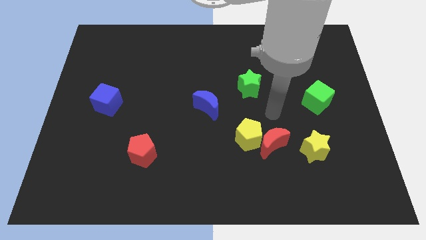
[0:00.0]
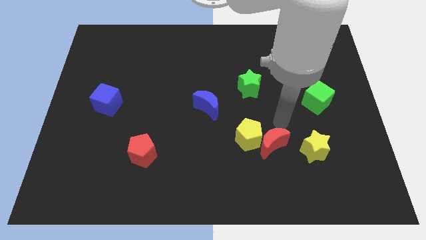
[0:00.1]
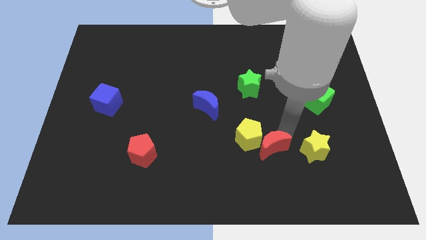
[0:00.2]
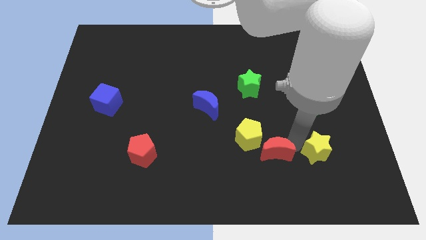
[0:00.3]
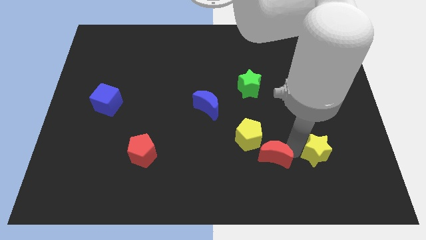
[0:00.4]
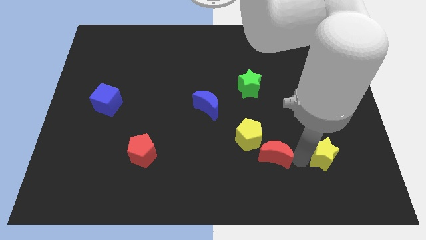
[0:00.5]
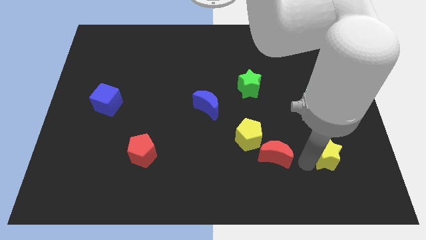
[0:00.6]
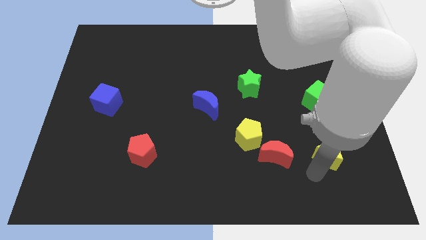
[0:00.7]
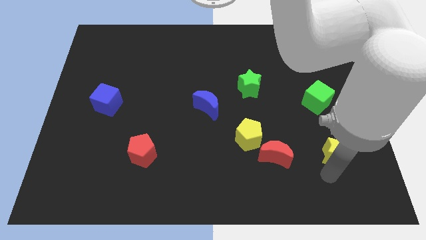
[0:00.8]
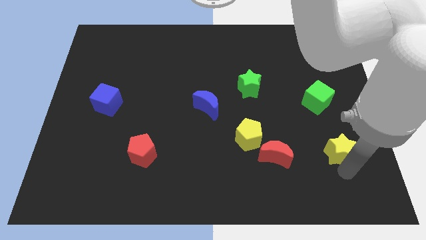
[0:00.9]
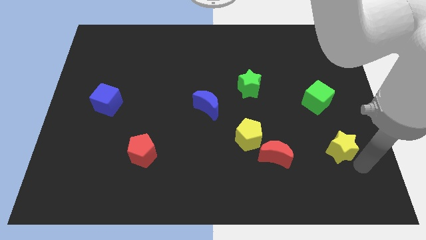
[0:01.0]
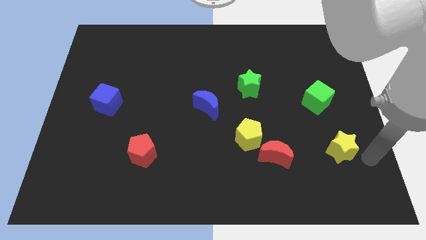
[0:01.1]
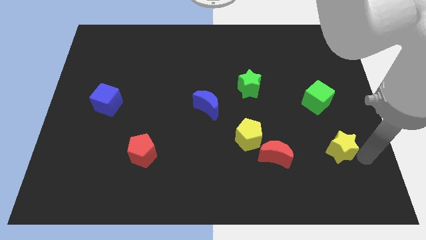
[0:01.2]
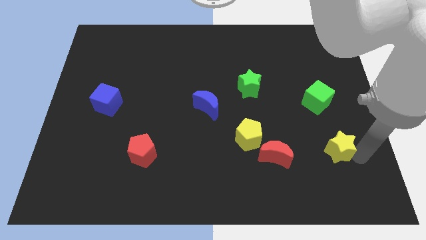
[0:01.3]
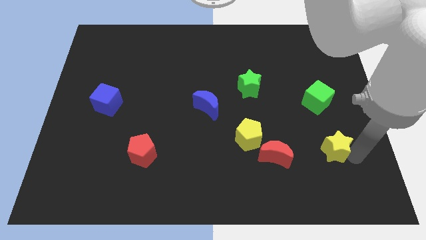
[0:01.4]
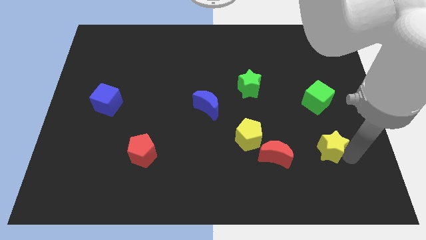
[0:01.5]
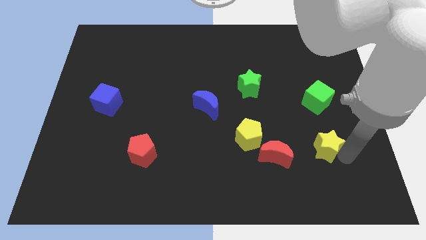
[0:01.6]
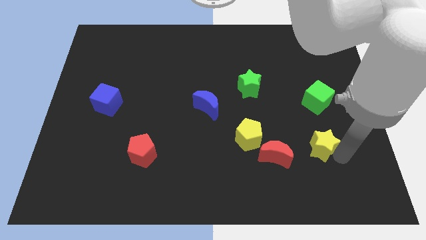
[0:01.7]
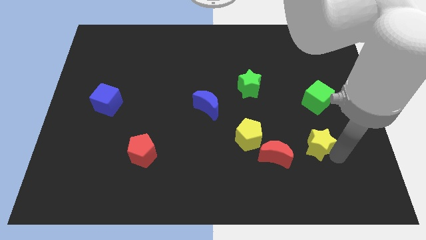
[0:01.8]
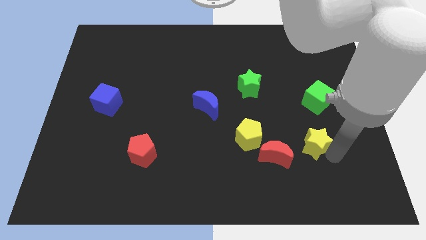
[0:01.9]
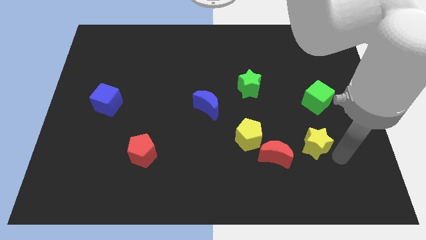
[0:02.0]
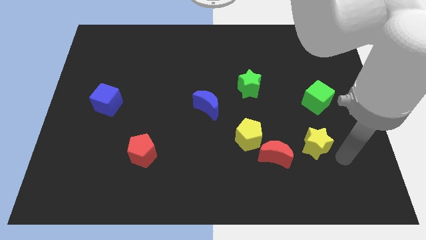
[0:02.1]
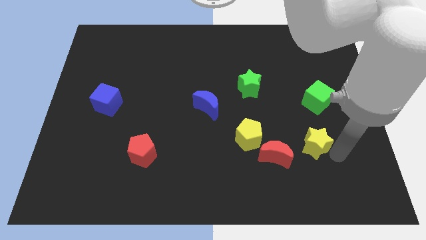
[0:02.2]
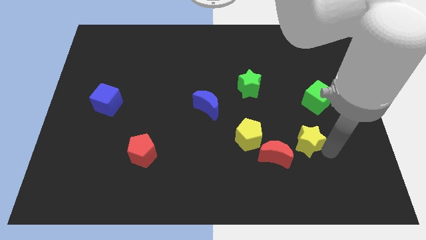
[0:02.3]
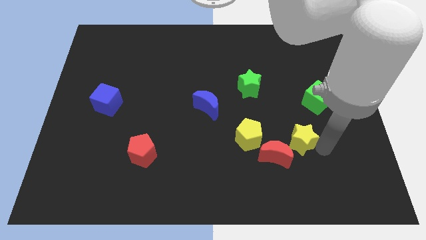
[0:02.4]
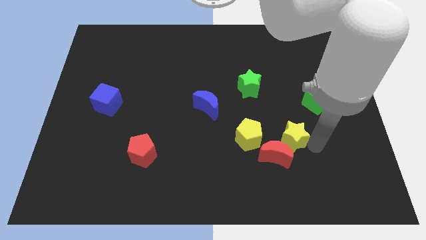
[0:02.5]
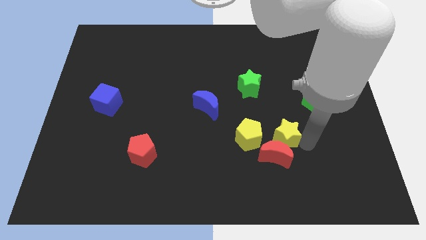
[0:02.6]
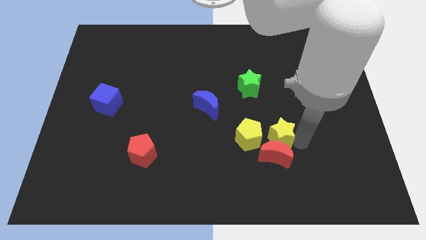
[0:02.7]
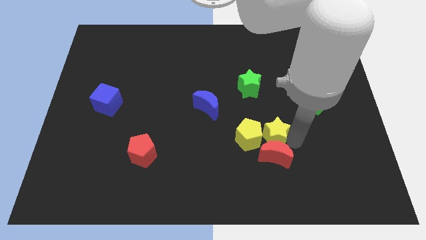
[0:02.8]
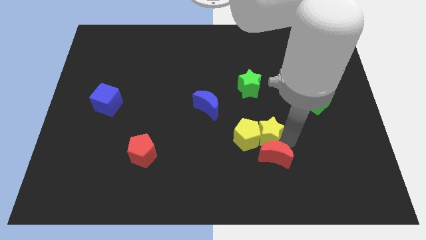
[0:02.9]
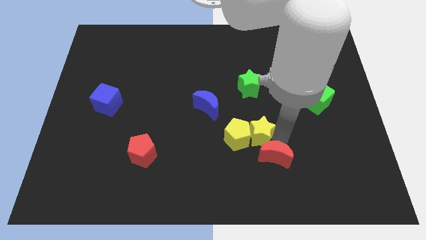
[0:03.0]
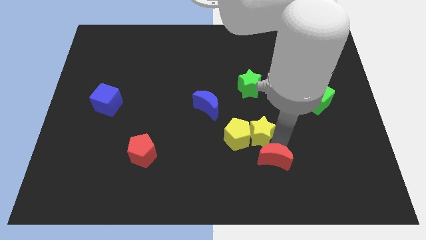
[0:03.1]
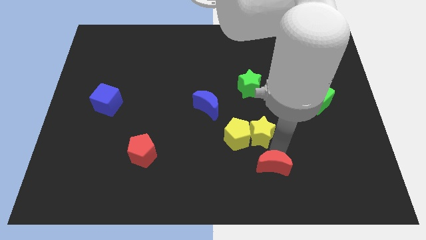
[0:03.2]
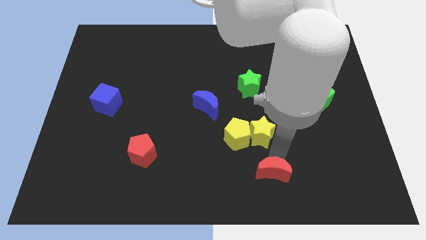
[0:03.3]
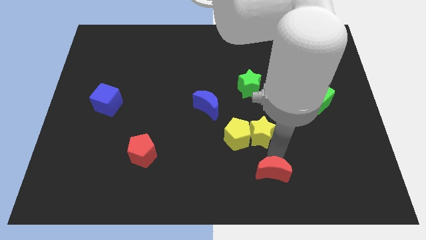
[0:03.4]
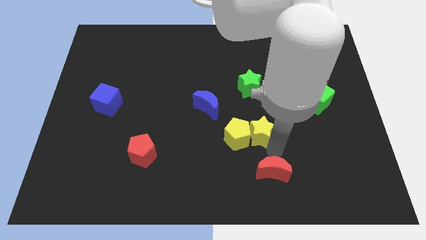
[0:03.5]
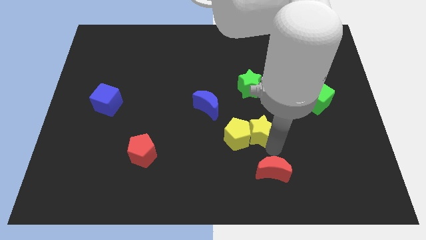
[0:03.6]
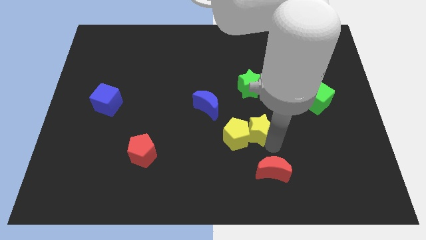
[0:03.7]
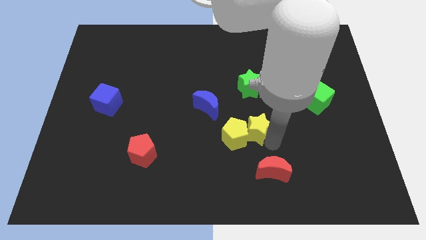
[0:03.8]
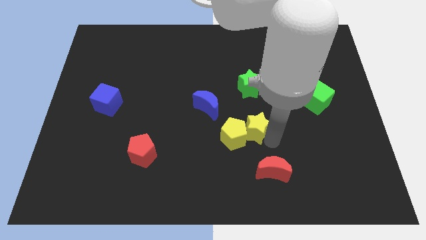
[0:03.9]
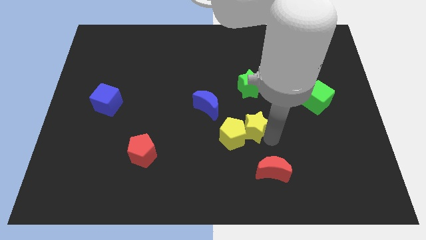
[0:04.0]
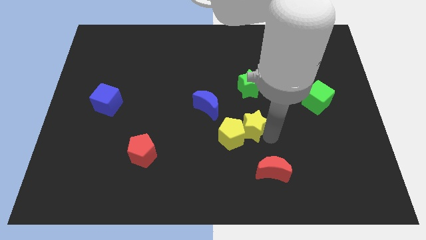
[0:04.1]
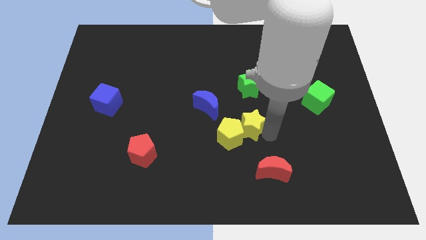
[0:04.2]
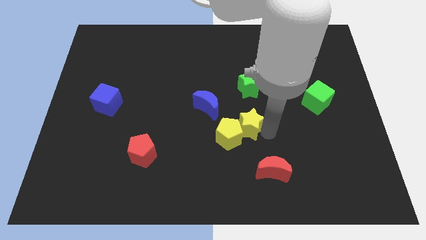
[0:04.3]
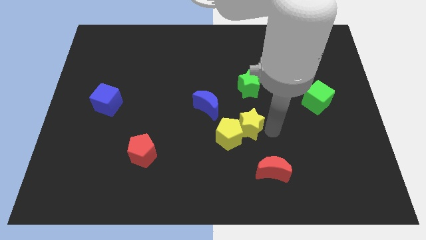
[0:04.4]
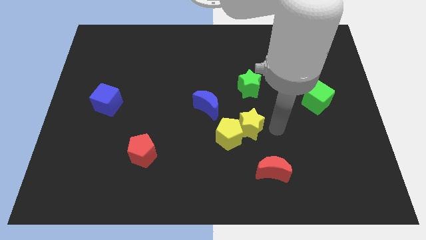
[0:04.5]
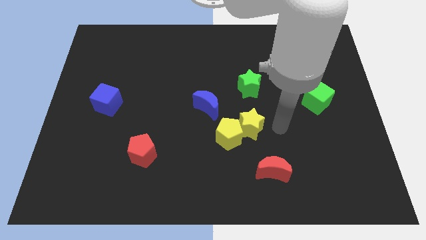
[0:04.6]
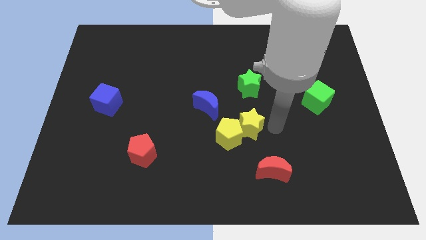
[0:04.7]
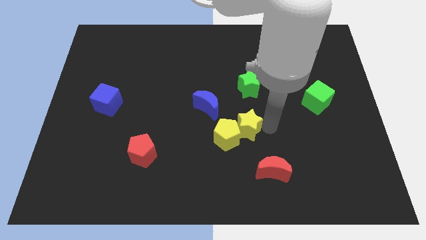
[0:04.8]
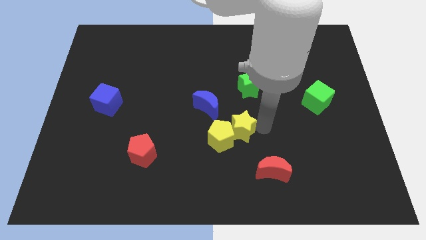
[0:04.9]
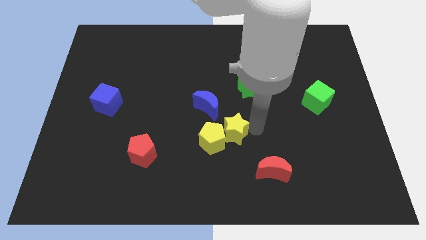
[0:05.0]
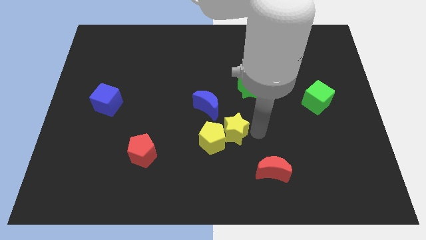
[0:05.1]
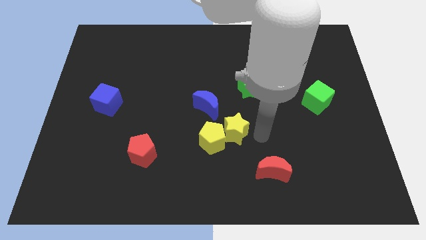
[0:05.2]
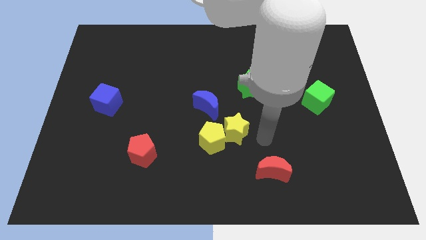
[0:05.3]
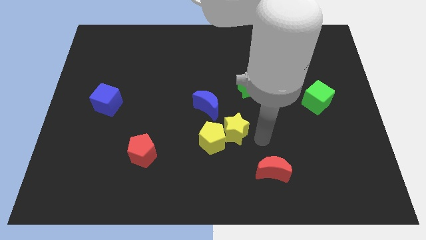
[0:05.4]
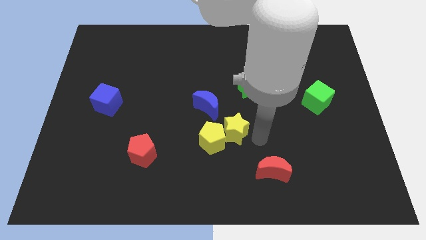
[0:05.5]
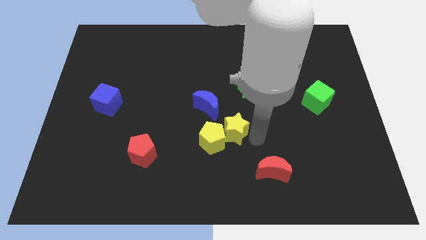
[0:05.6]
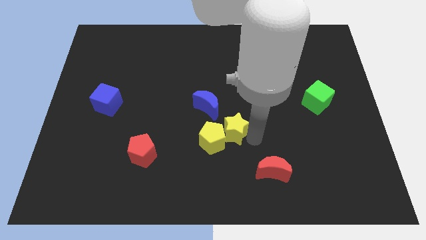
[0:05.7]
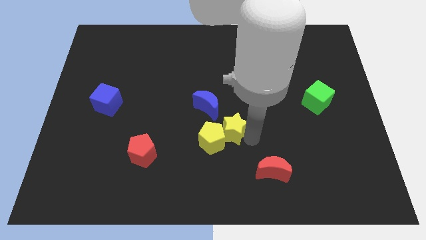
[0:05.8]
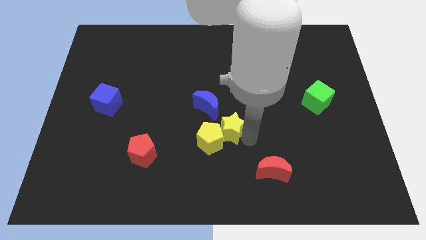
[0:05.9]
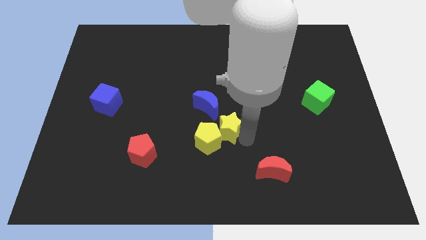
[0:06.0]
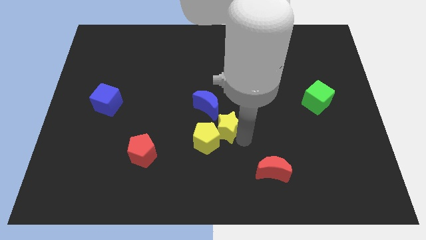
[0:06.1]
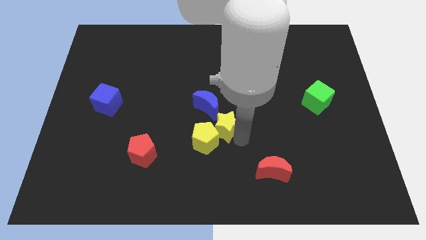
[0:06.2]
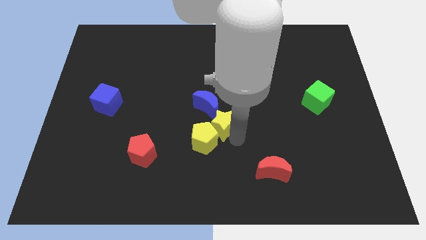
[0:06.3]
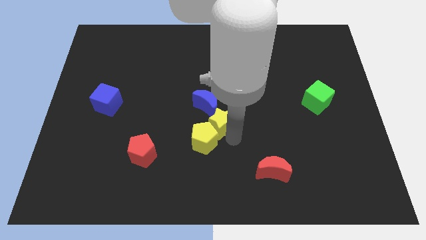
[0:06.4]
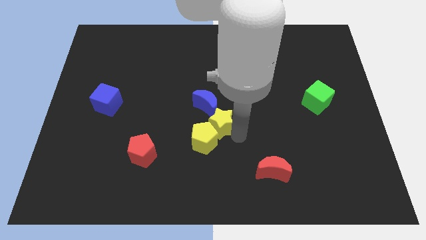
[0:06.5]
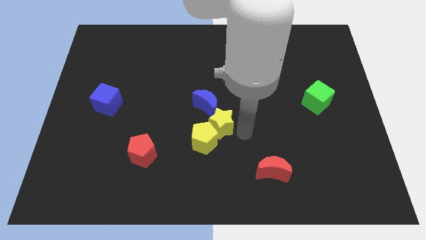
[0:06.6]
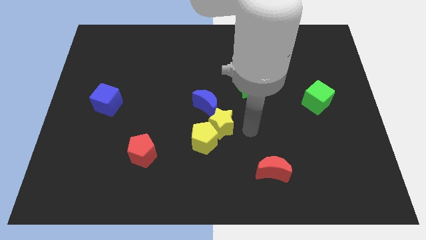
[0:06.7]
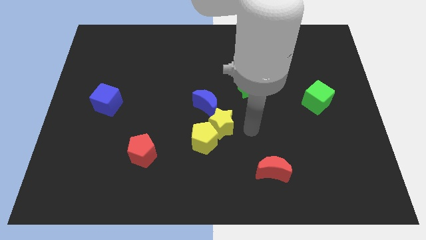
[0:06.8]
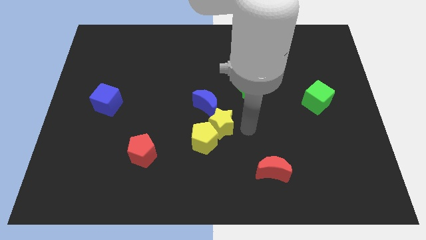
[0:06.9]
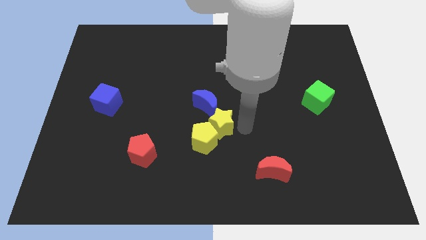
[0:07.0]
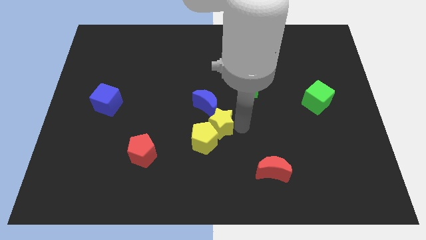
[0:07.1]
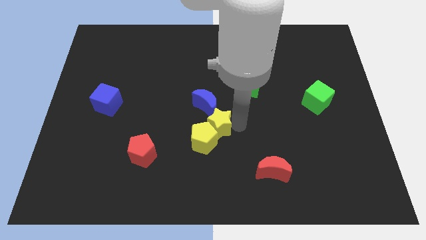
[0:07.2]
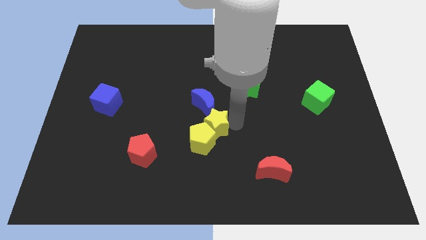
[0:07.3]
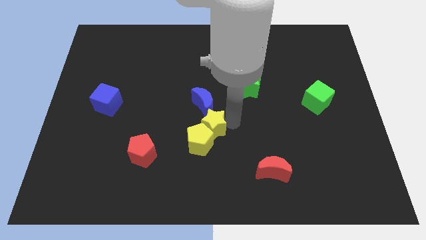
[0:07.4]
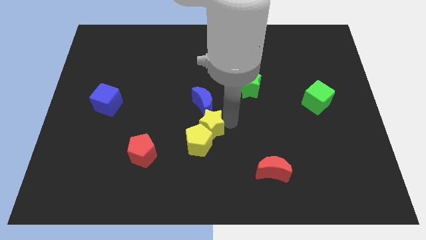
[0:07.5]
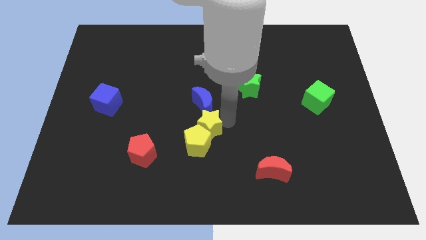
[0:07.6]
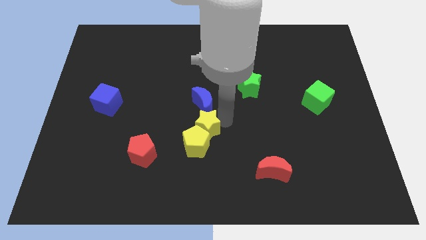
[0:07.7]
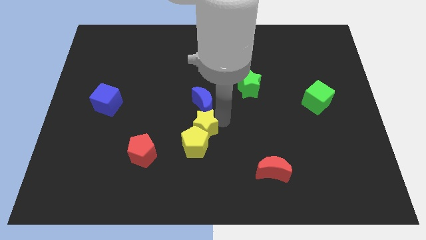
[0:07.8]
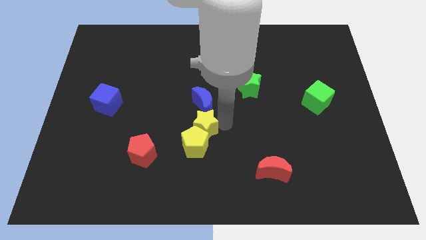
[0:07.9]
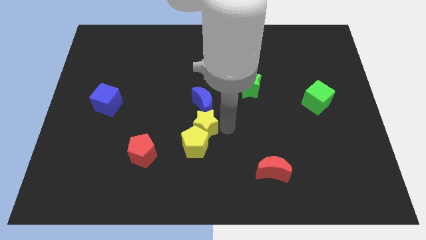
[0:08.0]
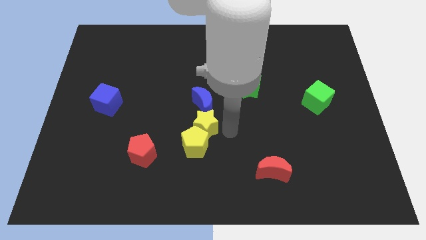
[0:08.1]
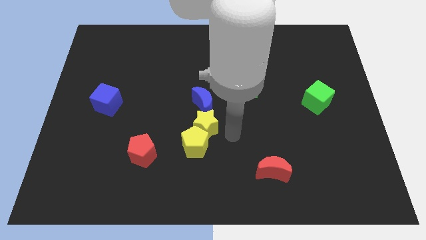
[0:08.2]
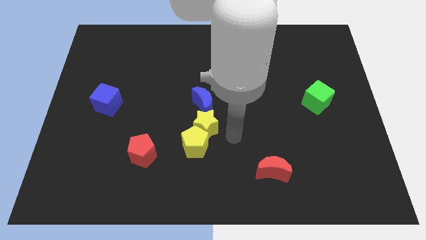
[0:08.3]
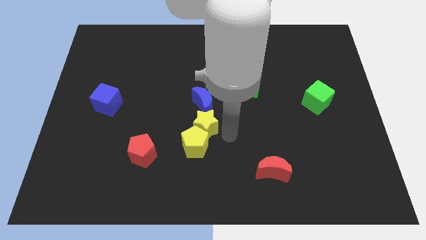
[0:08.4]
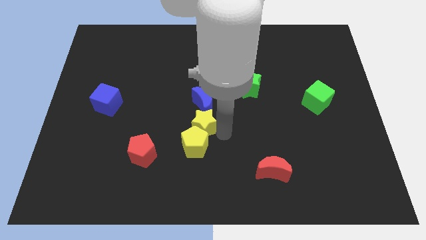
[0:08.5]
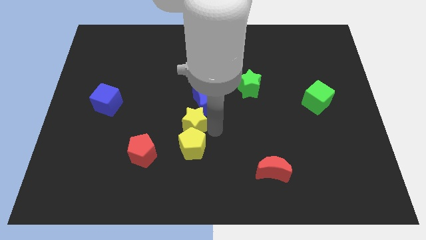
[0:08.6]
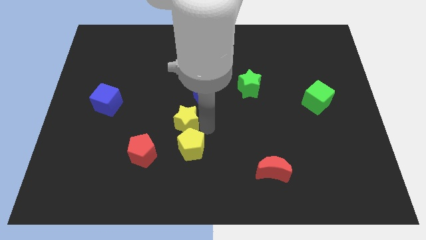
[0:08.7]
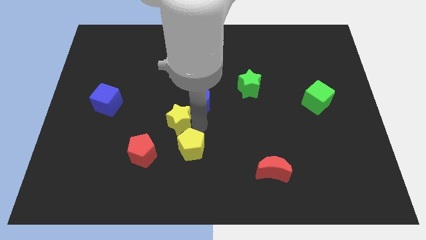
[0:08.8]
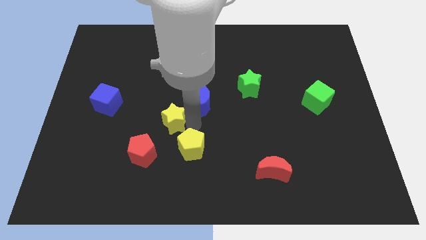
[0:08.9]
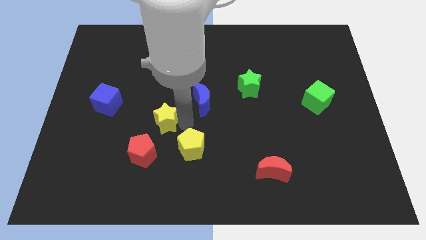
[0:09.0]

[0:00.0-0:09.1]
put the yellow star to the top side of the red pentagon
